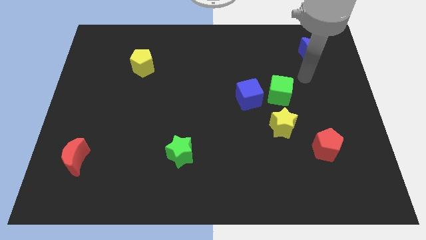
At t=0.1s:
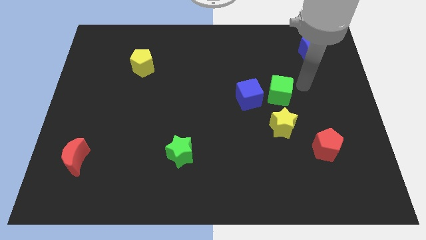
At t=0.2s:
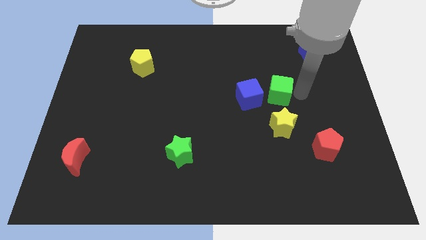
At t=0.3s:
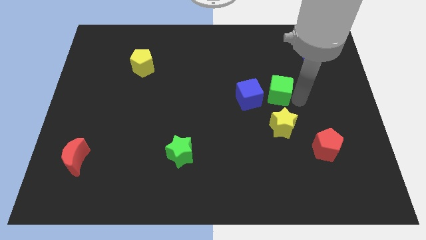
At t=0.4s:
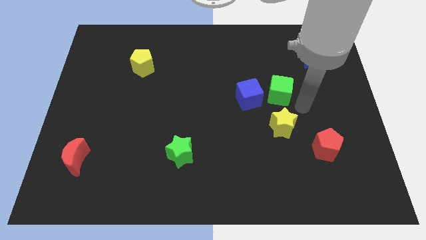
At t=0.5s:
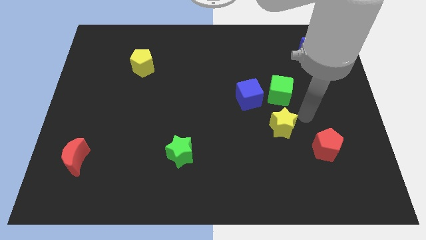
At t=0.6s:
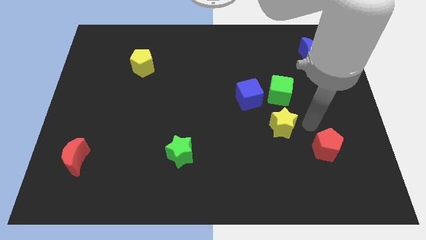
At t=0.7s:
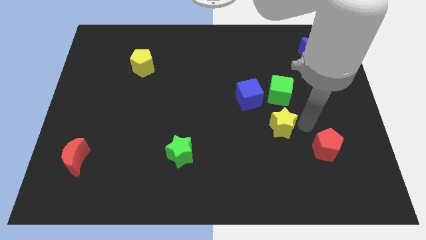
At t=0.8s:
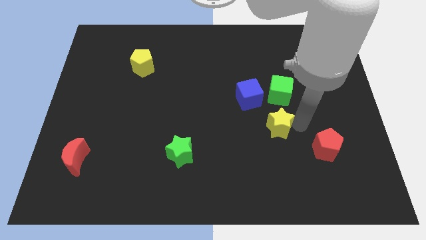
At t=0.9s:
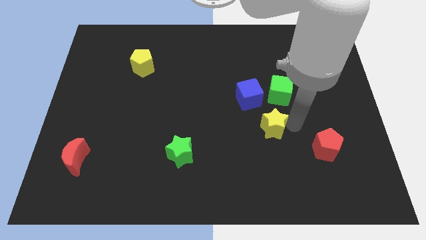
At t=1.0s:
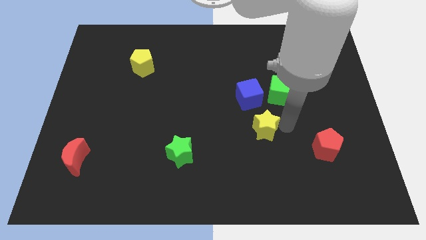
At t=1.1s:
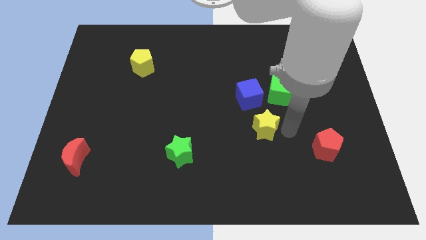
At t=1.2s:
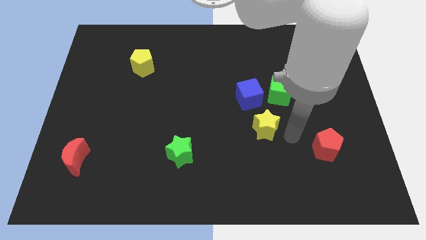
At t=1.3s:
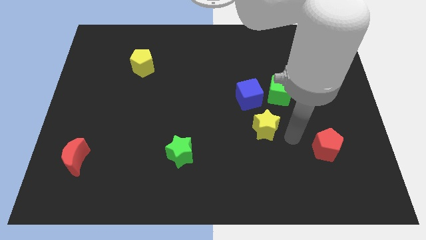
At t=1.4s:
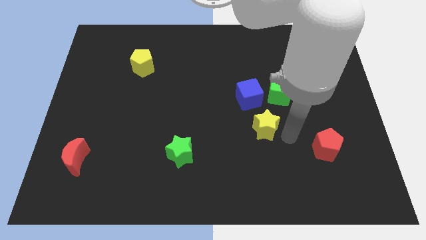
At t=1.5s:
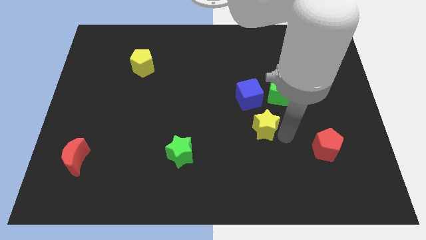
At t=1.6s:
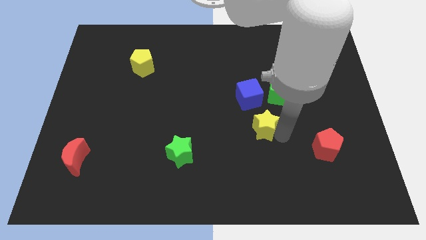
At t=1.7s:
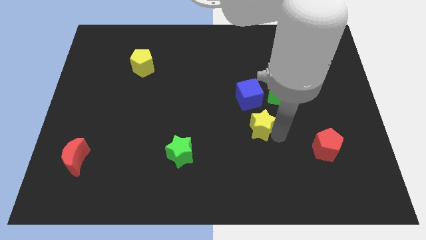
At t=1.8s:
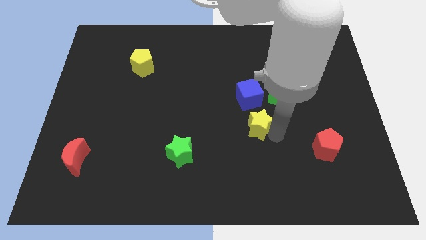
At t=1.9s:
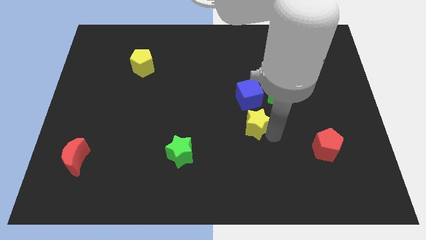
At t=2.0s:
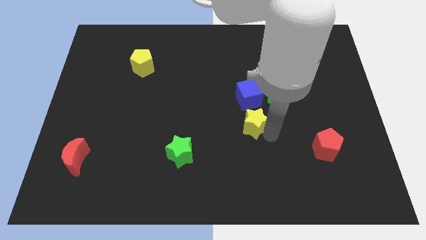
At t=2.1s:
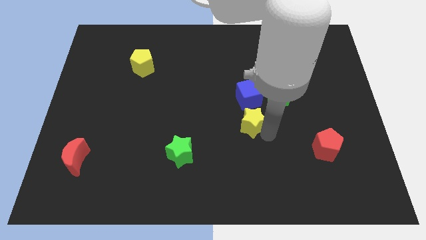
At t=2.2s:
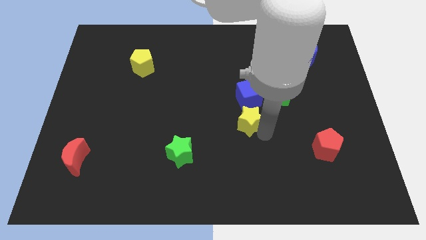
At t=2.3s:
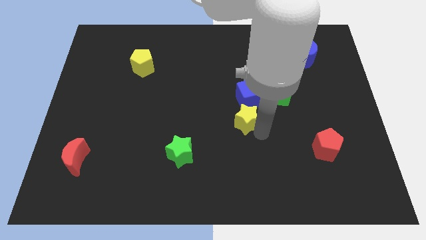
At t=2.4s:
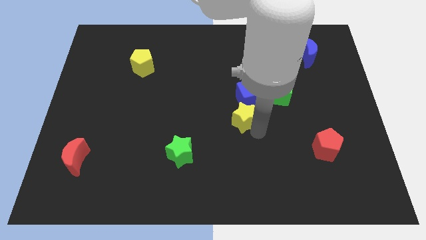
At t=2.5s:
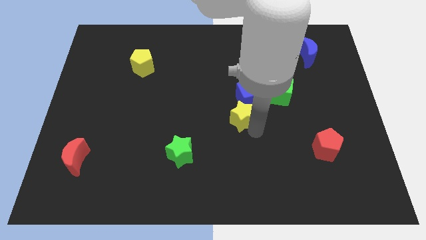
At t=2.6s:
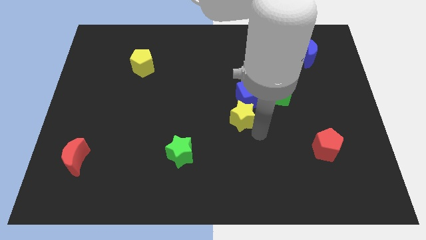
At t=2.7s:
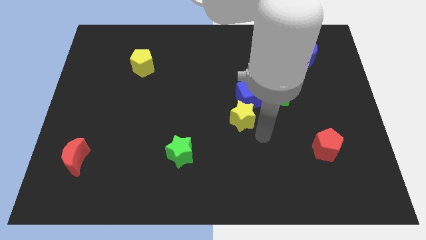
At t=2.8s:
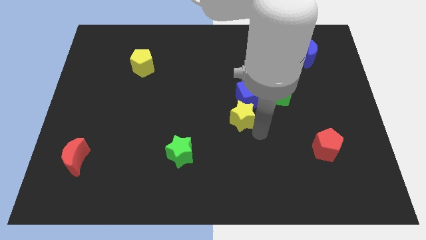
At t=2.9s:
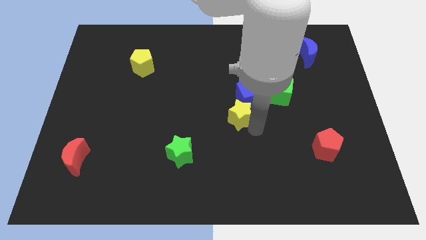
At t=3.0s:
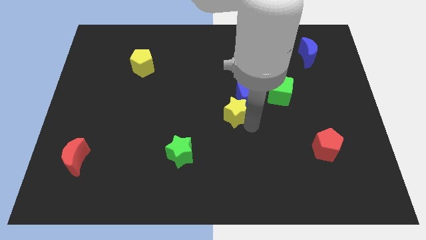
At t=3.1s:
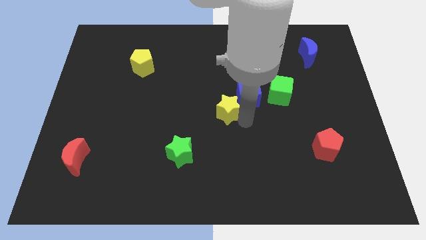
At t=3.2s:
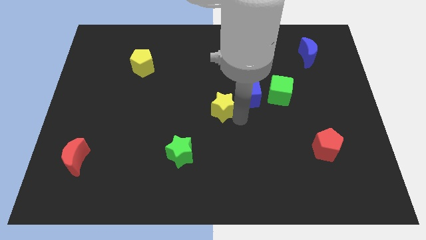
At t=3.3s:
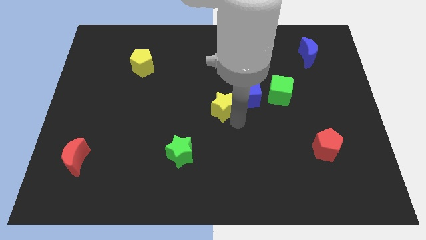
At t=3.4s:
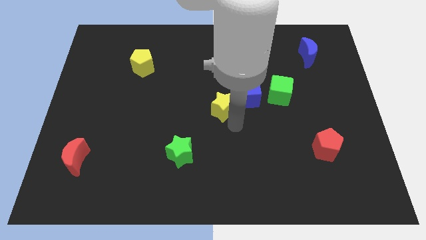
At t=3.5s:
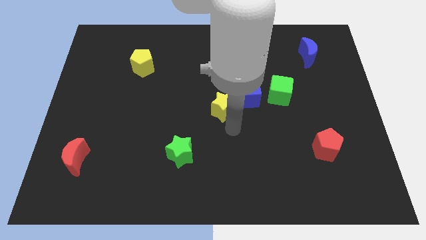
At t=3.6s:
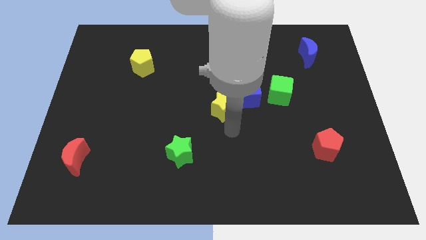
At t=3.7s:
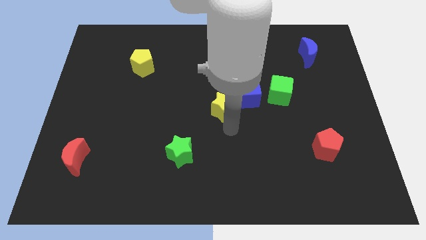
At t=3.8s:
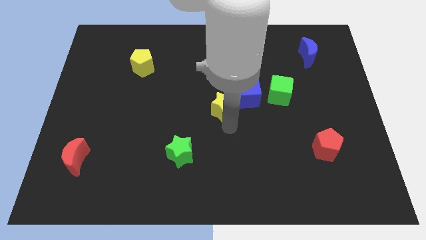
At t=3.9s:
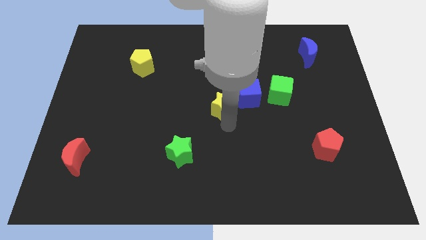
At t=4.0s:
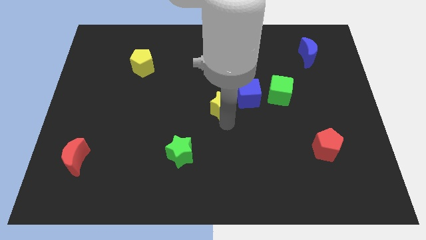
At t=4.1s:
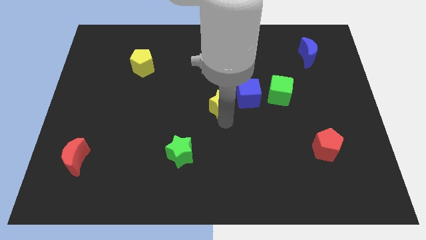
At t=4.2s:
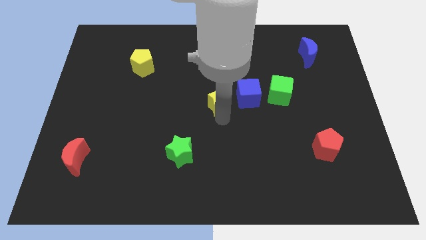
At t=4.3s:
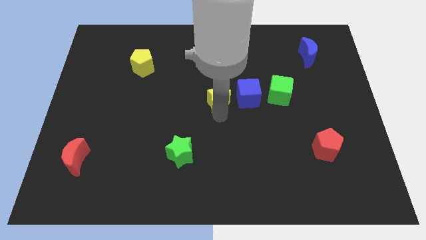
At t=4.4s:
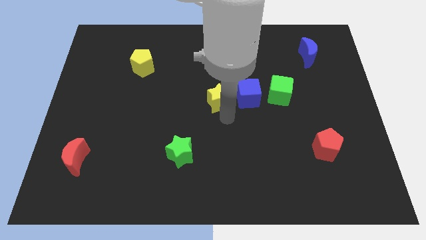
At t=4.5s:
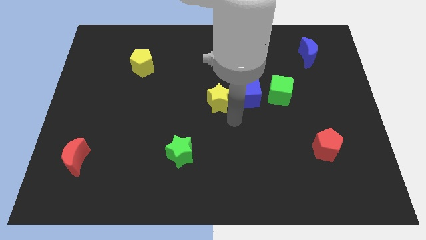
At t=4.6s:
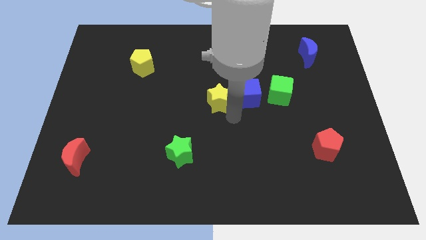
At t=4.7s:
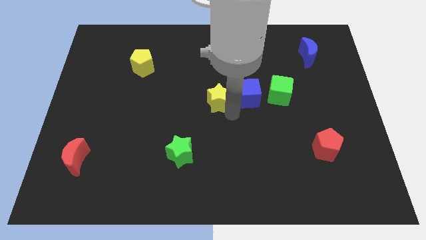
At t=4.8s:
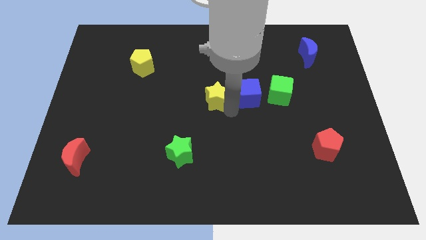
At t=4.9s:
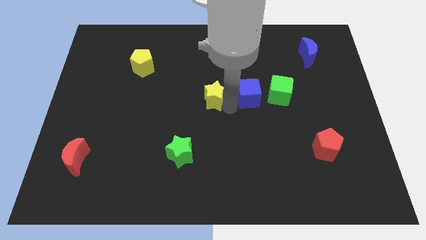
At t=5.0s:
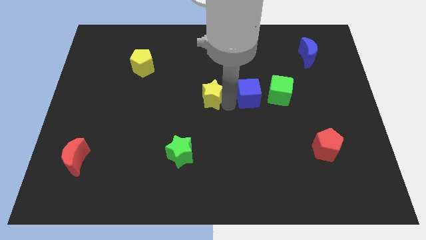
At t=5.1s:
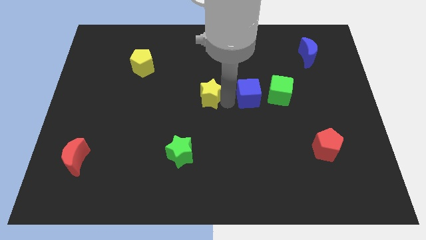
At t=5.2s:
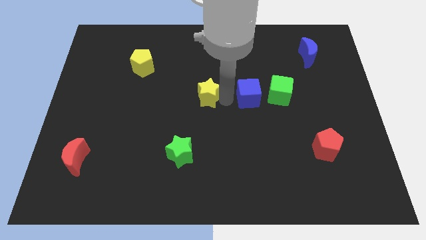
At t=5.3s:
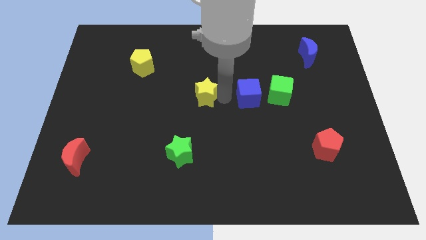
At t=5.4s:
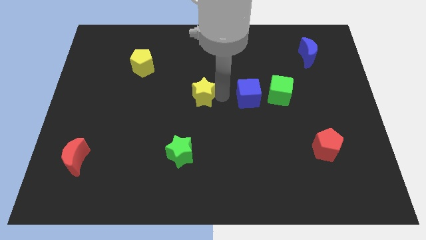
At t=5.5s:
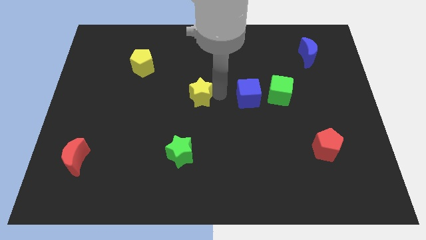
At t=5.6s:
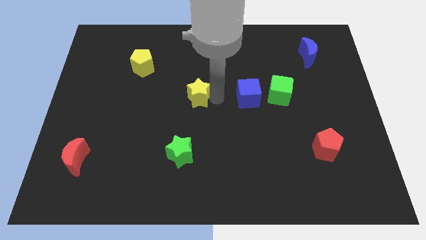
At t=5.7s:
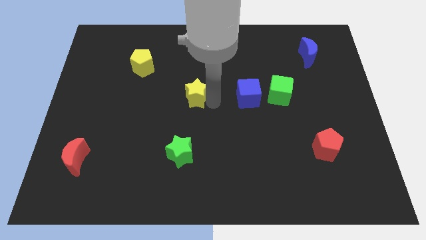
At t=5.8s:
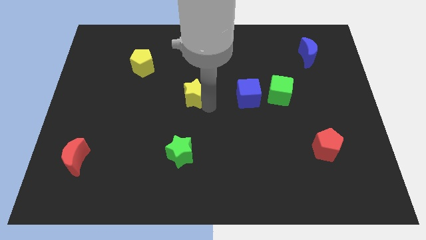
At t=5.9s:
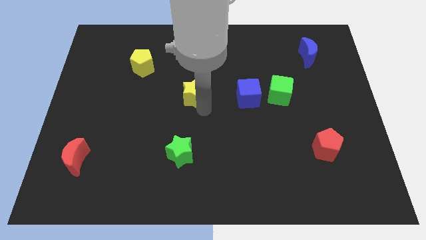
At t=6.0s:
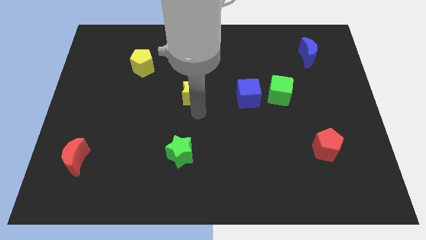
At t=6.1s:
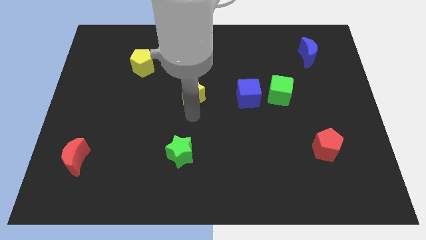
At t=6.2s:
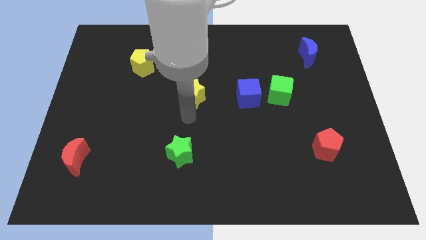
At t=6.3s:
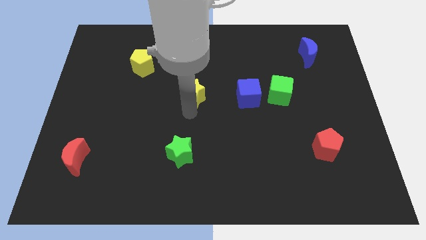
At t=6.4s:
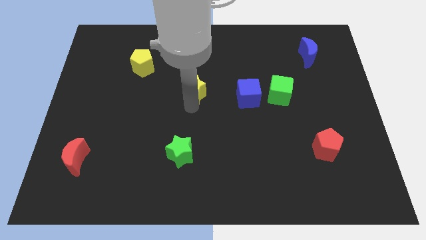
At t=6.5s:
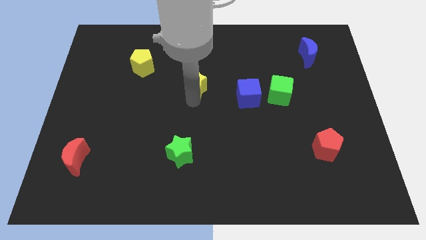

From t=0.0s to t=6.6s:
move the yellow star upwards and then to the left

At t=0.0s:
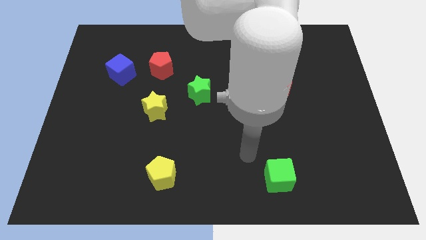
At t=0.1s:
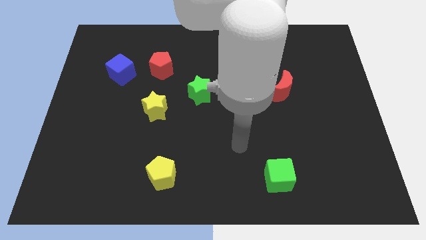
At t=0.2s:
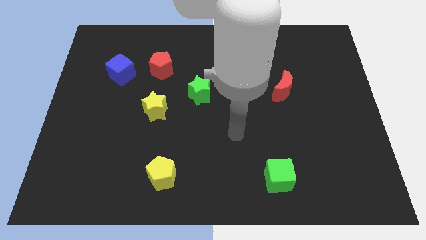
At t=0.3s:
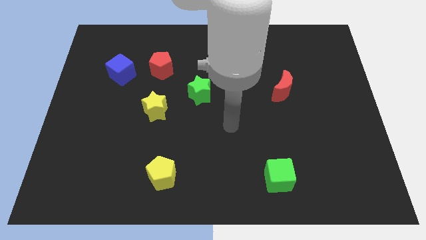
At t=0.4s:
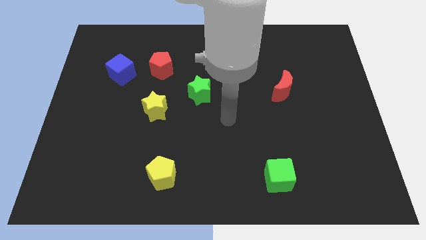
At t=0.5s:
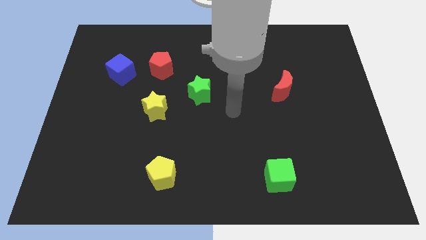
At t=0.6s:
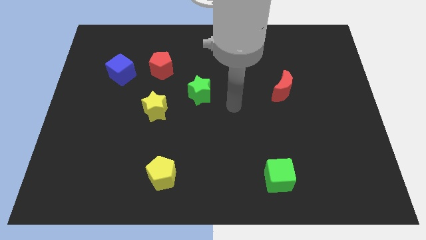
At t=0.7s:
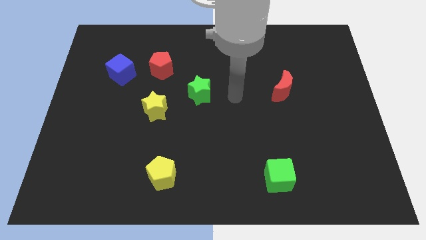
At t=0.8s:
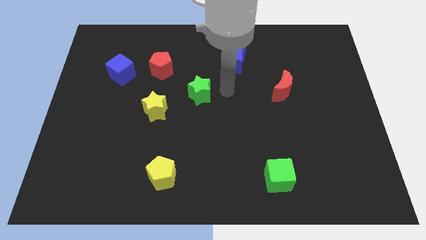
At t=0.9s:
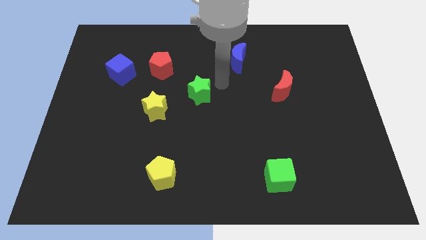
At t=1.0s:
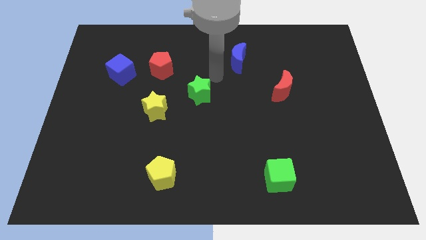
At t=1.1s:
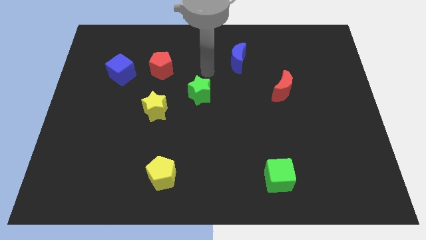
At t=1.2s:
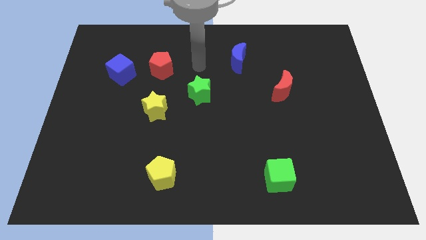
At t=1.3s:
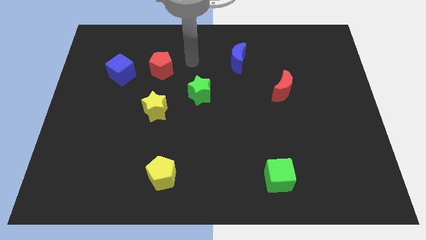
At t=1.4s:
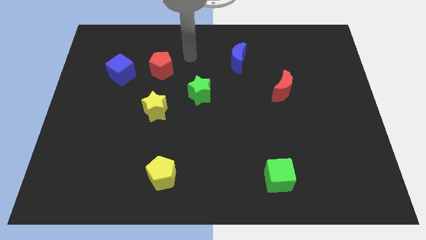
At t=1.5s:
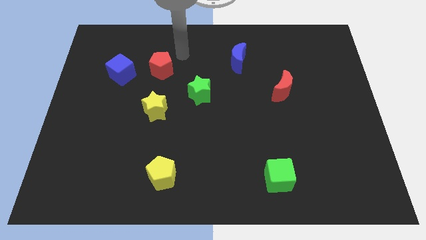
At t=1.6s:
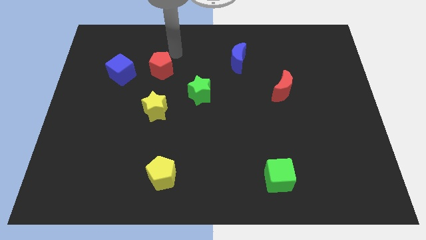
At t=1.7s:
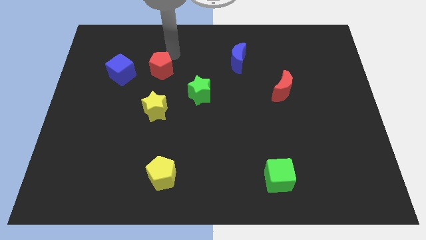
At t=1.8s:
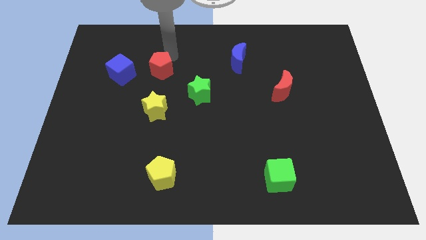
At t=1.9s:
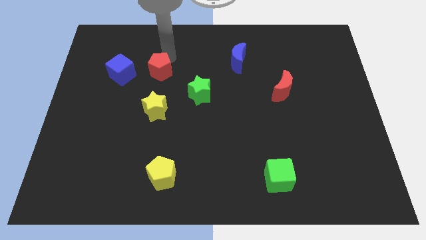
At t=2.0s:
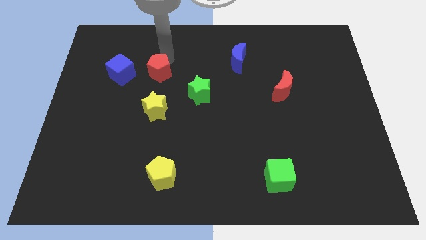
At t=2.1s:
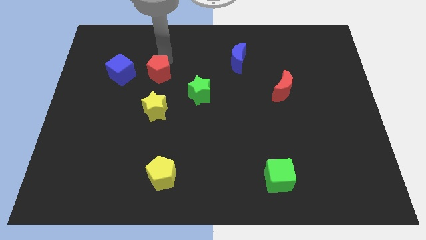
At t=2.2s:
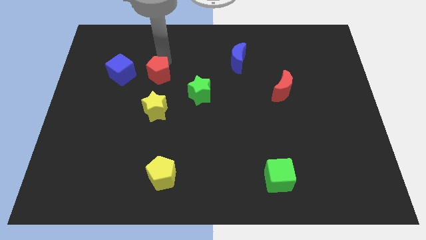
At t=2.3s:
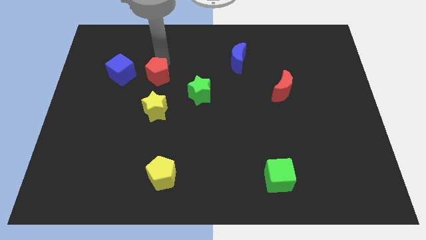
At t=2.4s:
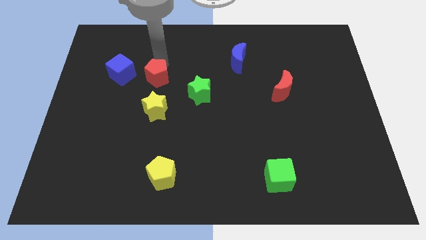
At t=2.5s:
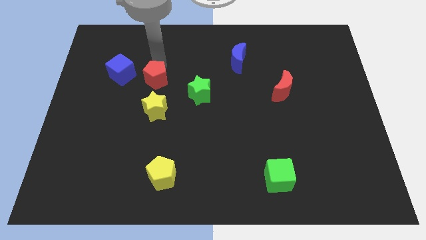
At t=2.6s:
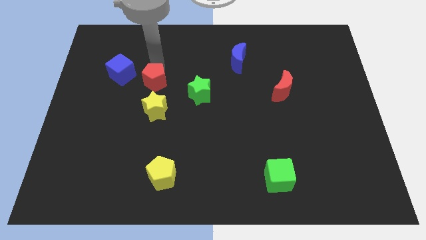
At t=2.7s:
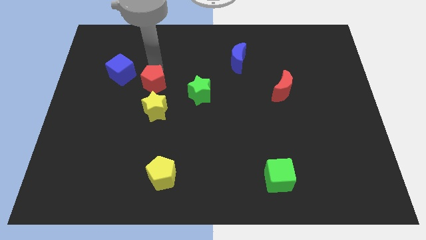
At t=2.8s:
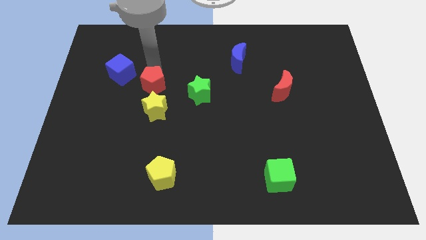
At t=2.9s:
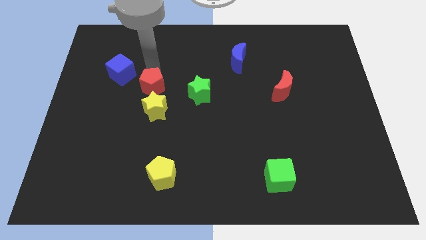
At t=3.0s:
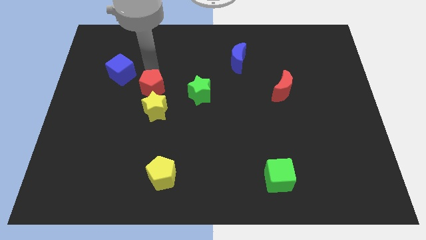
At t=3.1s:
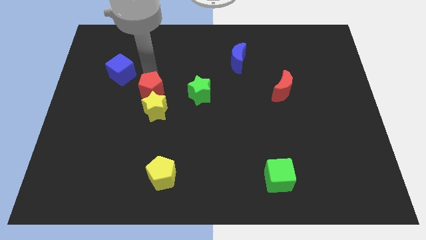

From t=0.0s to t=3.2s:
push the red pentagon downwards somewhat
